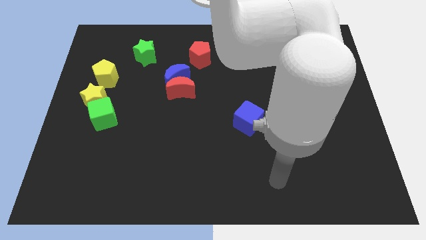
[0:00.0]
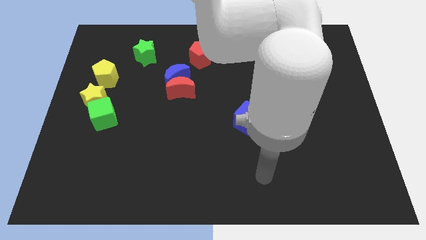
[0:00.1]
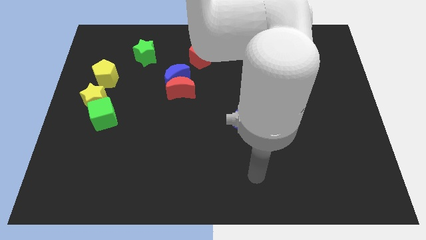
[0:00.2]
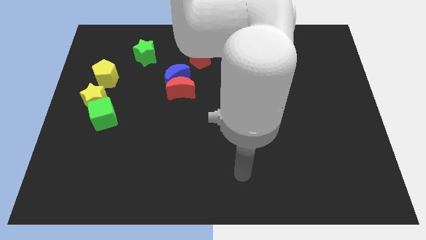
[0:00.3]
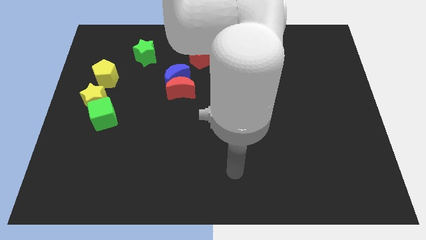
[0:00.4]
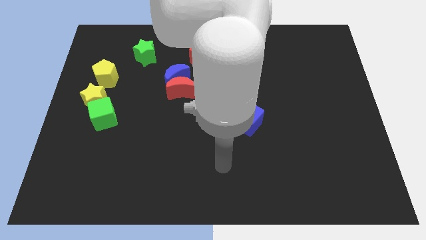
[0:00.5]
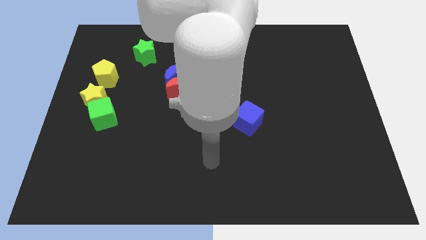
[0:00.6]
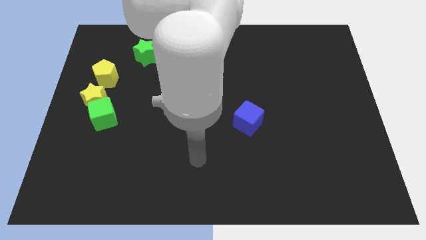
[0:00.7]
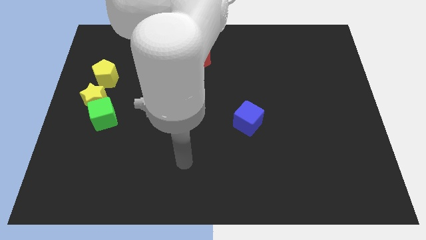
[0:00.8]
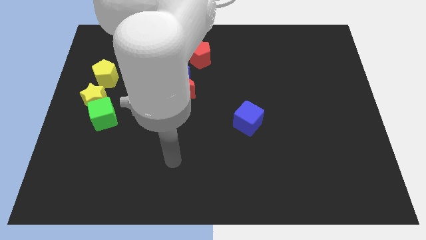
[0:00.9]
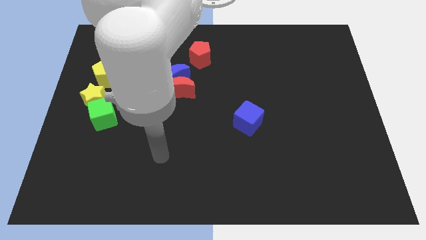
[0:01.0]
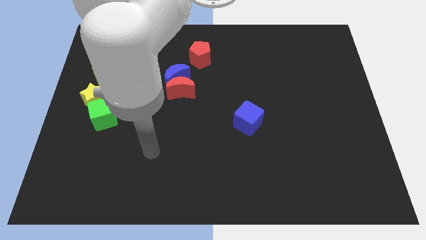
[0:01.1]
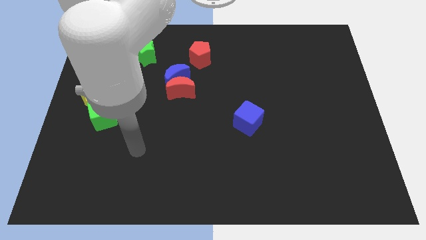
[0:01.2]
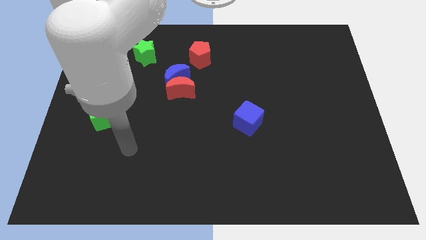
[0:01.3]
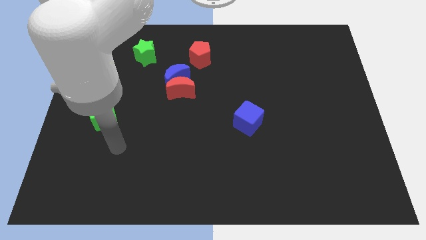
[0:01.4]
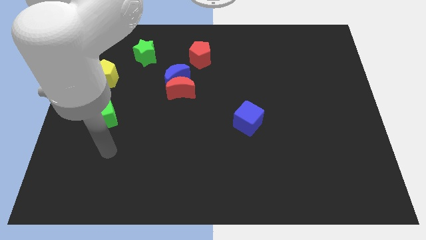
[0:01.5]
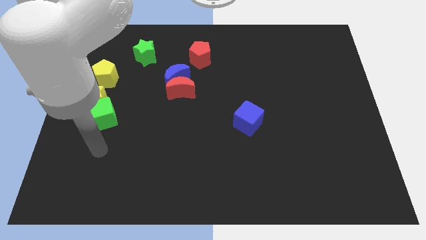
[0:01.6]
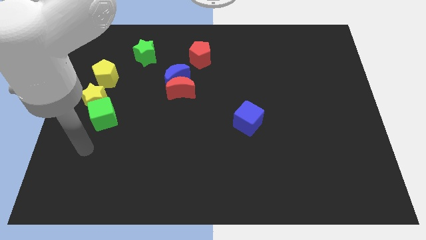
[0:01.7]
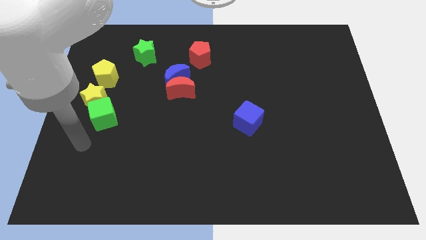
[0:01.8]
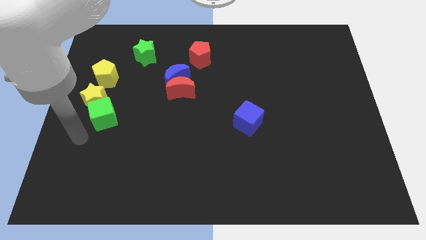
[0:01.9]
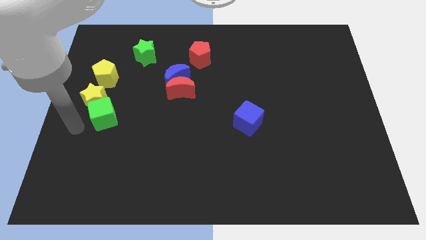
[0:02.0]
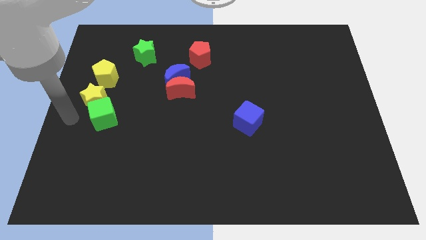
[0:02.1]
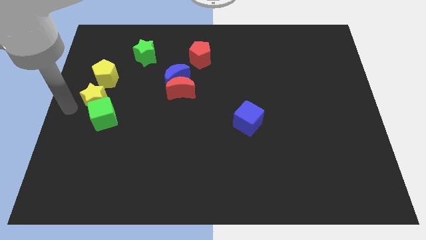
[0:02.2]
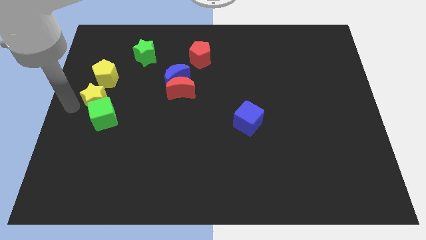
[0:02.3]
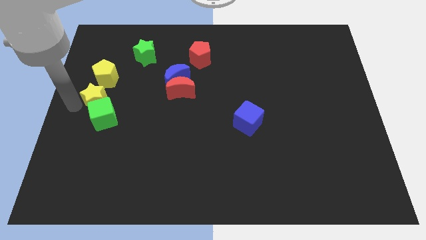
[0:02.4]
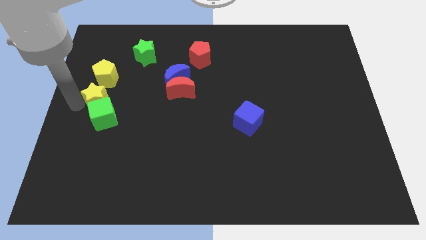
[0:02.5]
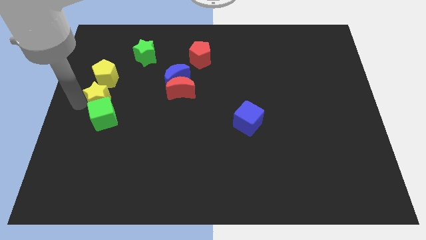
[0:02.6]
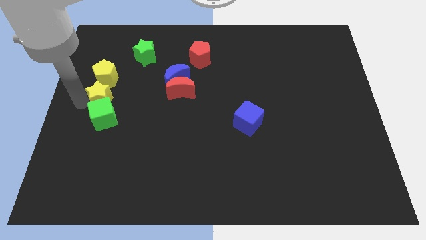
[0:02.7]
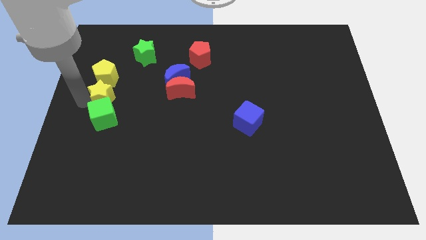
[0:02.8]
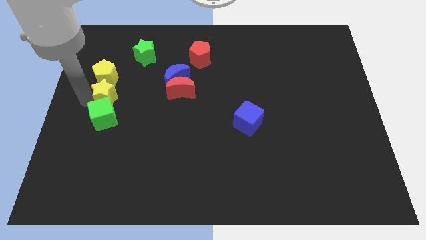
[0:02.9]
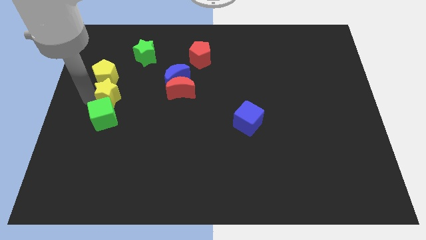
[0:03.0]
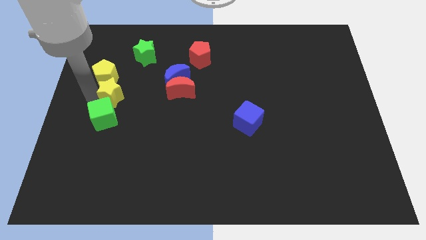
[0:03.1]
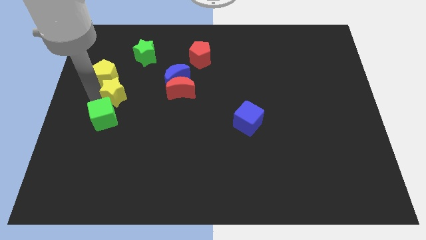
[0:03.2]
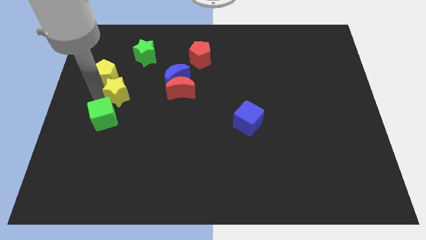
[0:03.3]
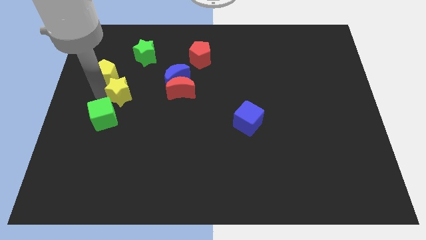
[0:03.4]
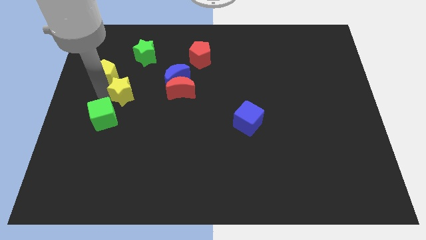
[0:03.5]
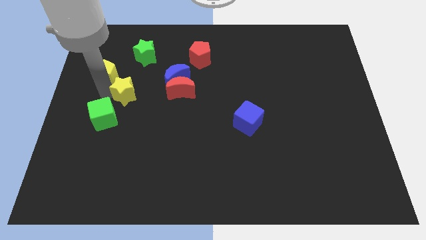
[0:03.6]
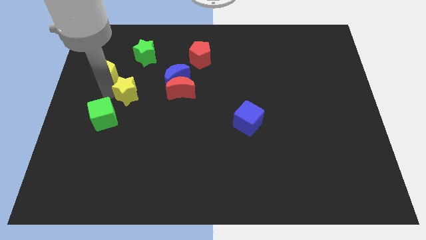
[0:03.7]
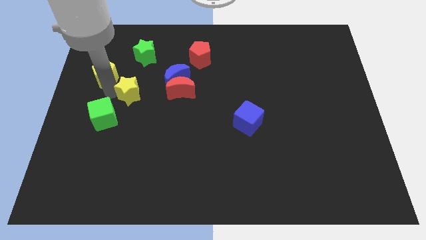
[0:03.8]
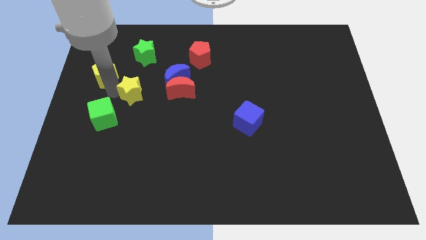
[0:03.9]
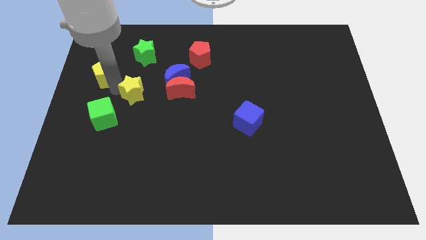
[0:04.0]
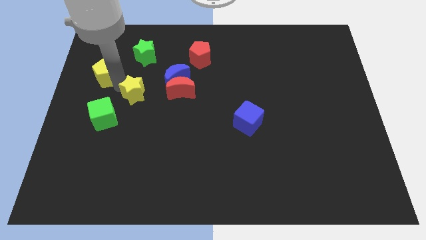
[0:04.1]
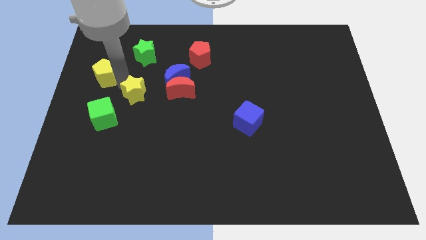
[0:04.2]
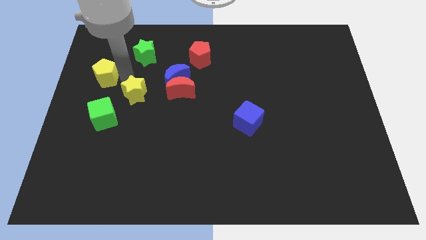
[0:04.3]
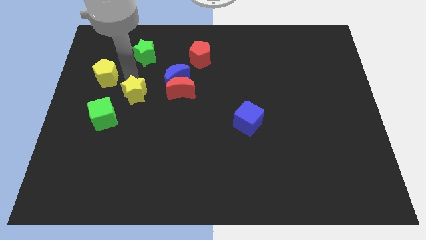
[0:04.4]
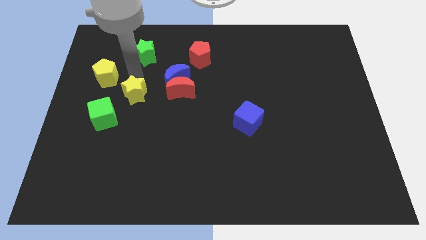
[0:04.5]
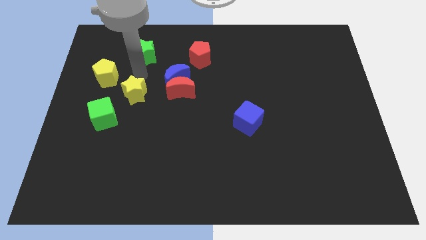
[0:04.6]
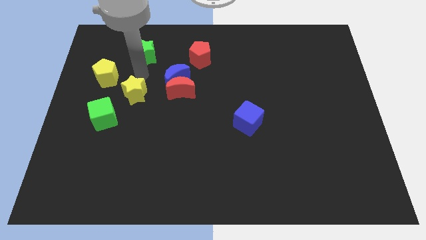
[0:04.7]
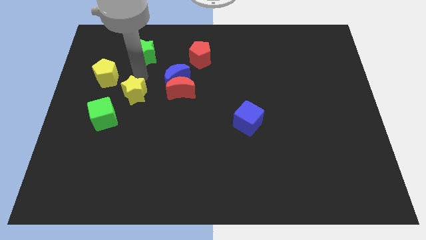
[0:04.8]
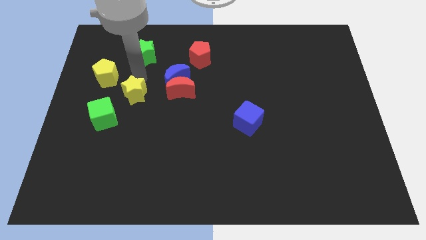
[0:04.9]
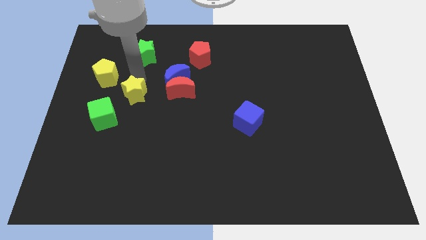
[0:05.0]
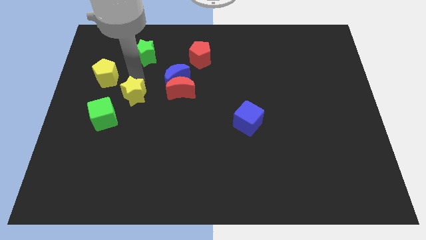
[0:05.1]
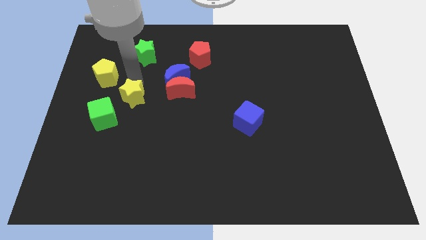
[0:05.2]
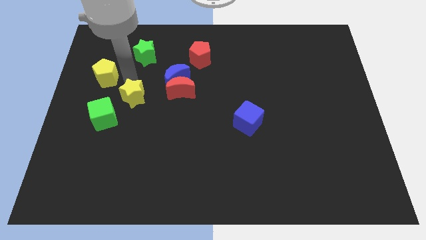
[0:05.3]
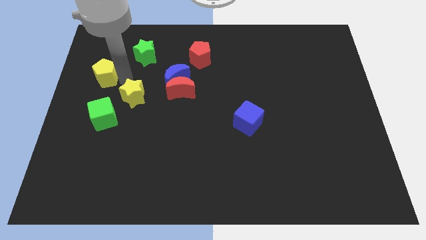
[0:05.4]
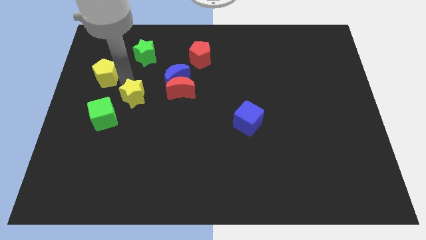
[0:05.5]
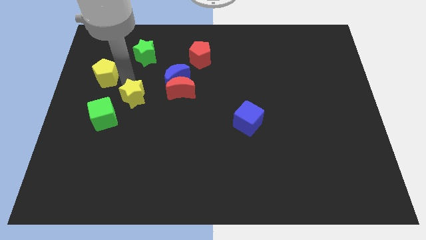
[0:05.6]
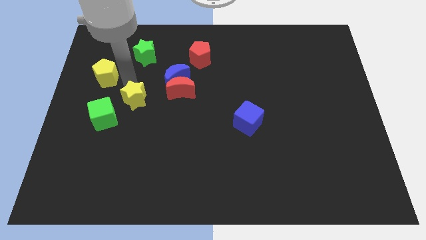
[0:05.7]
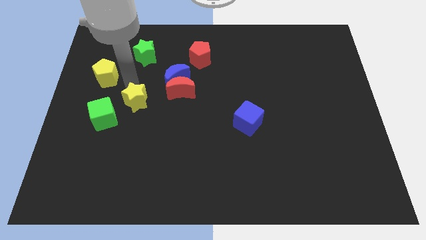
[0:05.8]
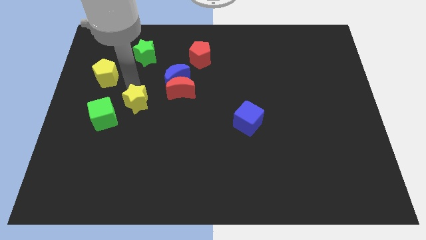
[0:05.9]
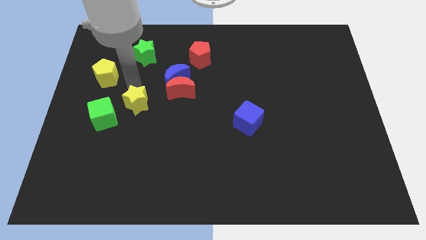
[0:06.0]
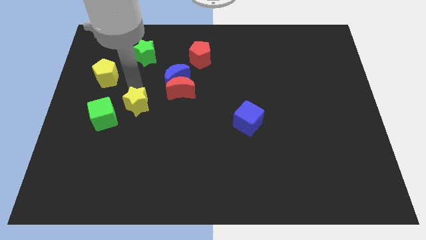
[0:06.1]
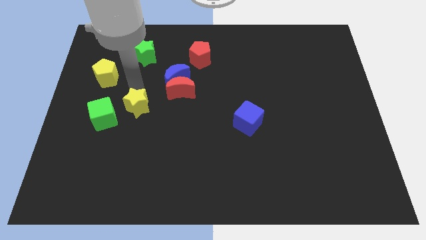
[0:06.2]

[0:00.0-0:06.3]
slightly push the yellow star down and then to the right

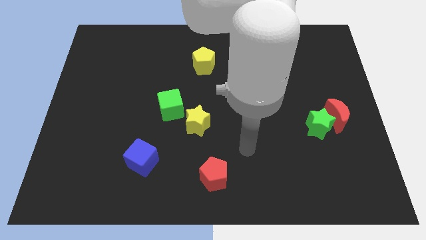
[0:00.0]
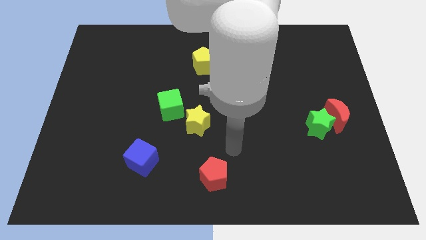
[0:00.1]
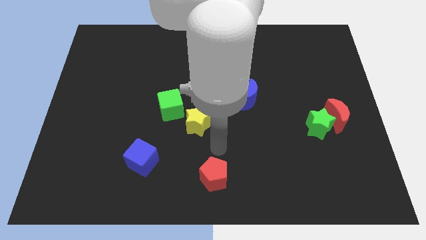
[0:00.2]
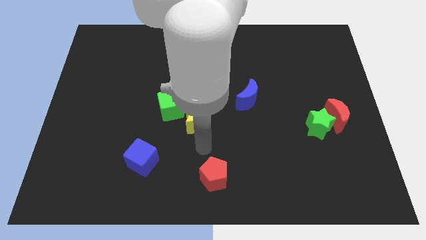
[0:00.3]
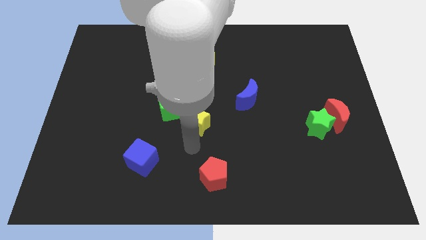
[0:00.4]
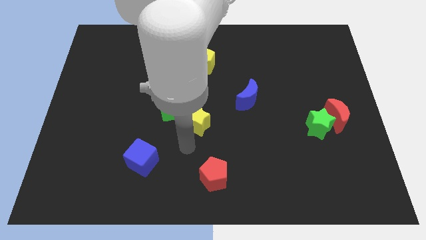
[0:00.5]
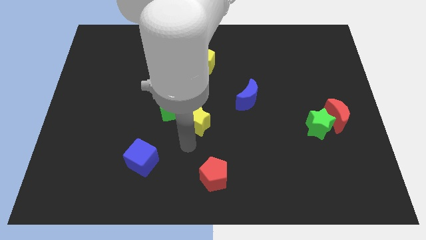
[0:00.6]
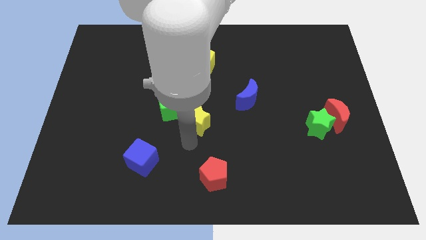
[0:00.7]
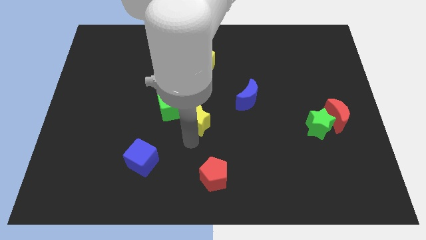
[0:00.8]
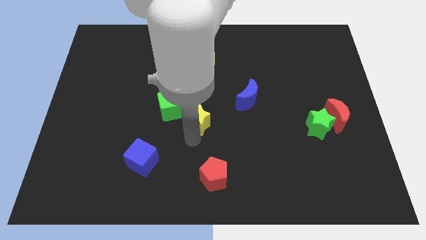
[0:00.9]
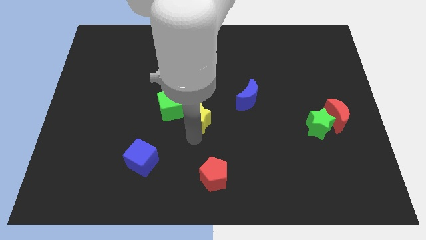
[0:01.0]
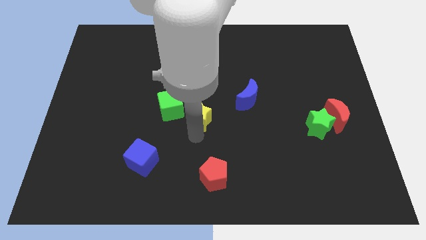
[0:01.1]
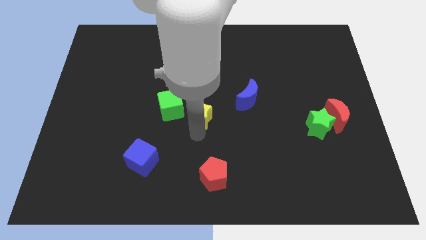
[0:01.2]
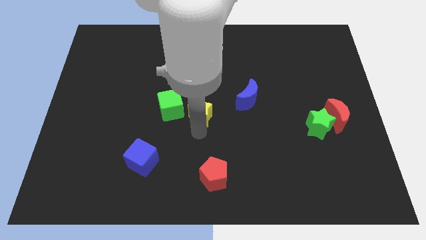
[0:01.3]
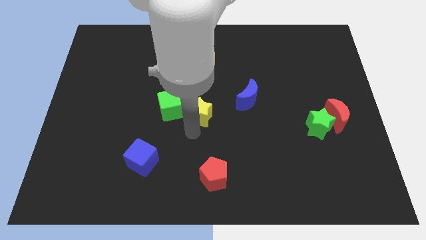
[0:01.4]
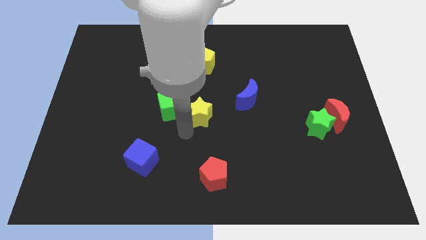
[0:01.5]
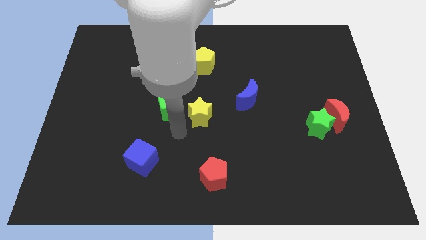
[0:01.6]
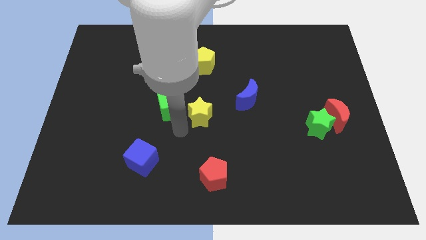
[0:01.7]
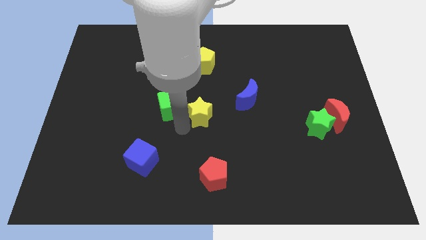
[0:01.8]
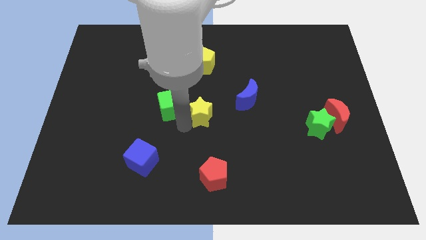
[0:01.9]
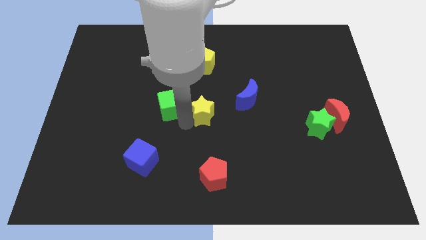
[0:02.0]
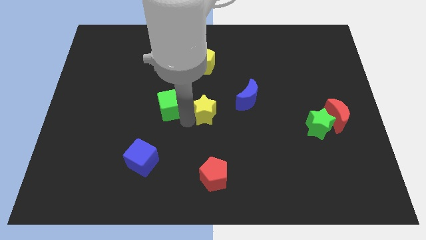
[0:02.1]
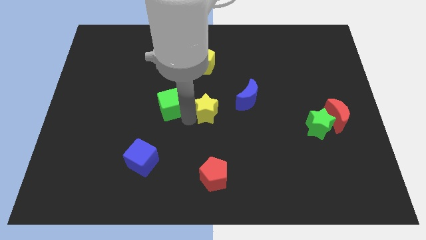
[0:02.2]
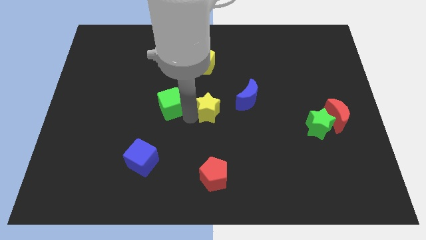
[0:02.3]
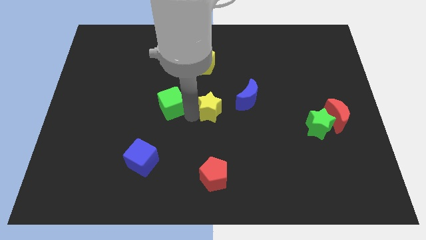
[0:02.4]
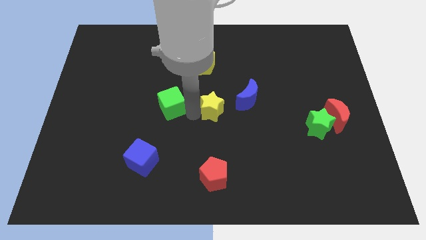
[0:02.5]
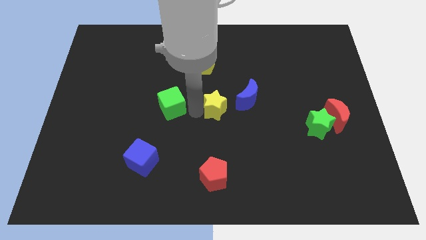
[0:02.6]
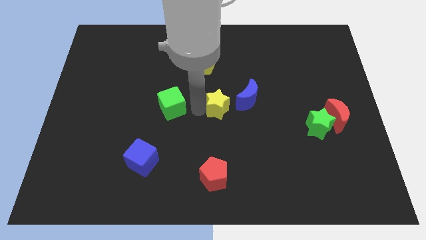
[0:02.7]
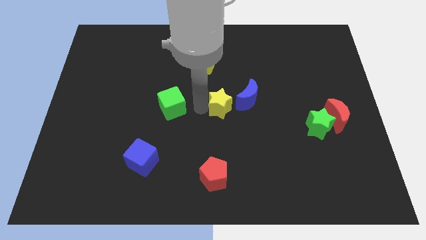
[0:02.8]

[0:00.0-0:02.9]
move the yellow star upwards and then right somewhat
